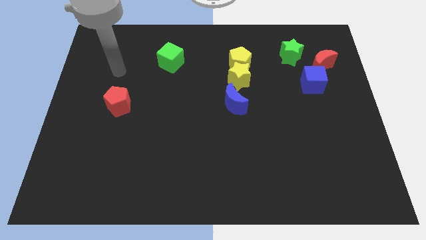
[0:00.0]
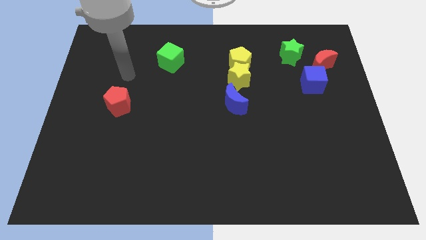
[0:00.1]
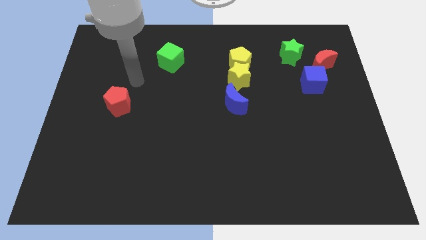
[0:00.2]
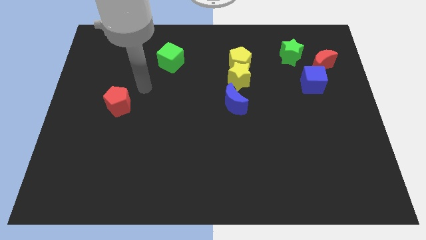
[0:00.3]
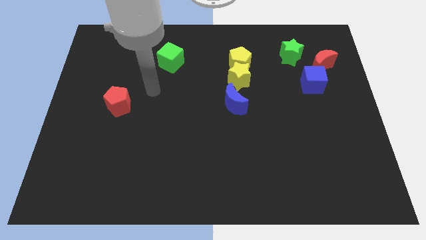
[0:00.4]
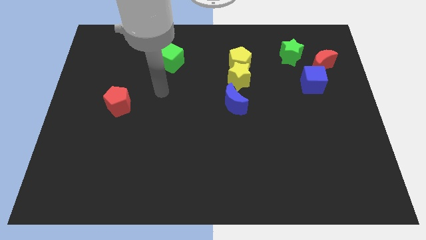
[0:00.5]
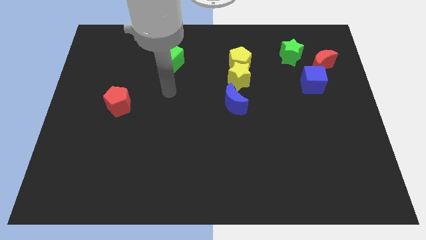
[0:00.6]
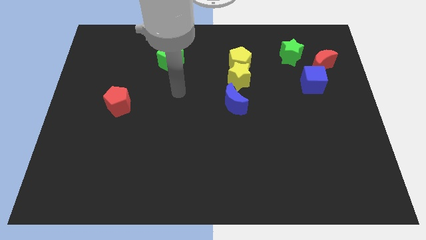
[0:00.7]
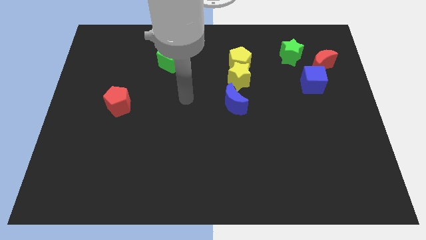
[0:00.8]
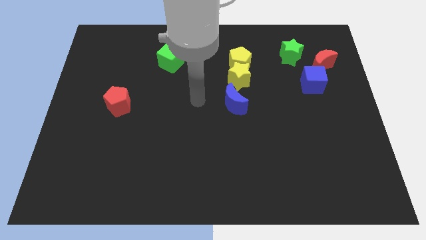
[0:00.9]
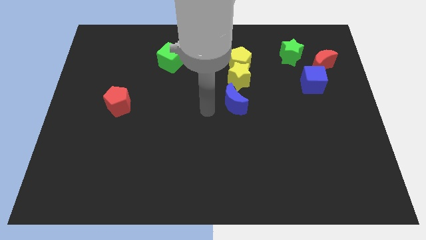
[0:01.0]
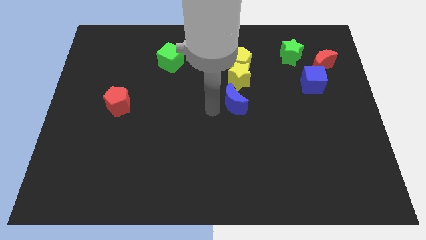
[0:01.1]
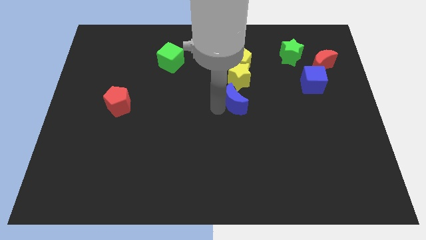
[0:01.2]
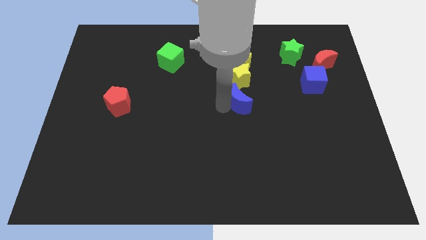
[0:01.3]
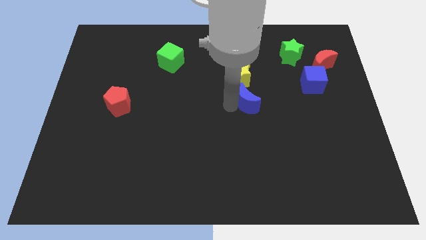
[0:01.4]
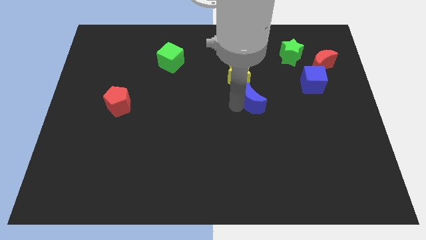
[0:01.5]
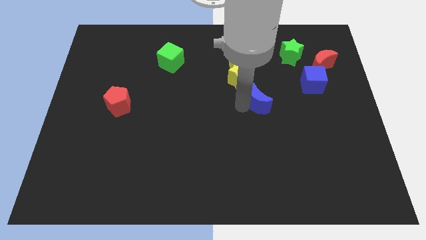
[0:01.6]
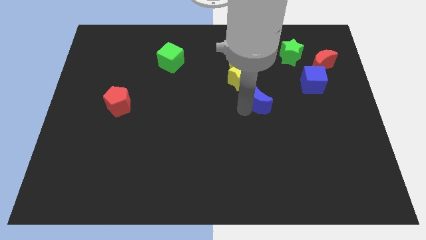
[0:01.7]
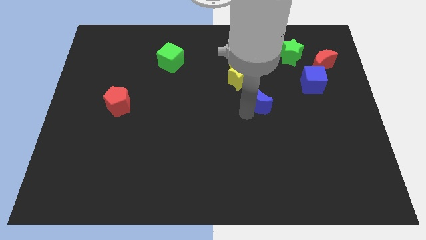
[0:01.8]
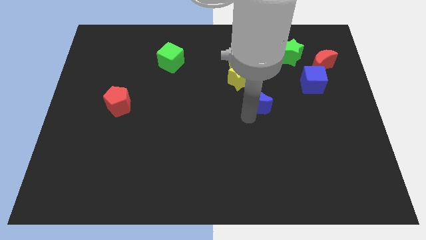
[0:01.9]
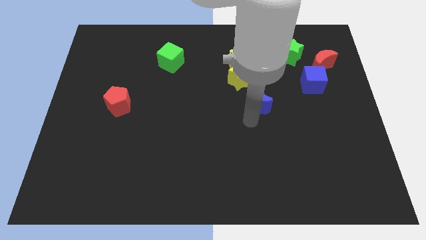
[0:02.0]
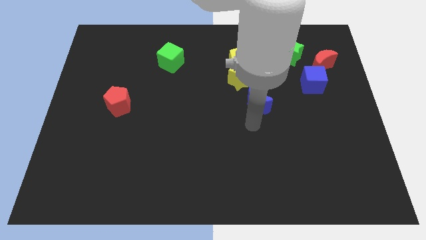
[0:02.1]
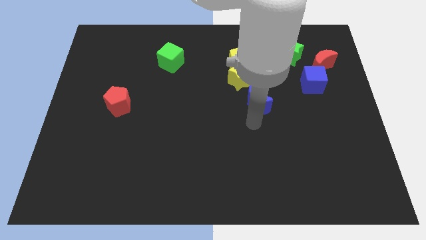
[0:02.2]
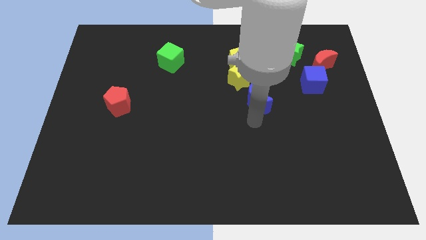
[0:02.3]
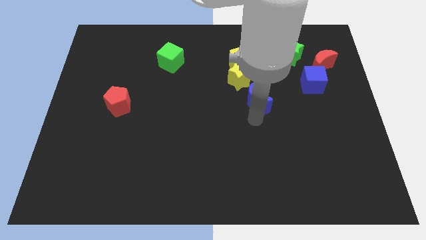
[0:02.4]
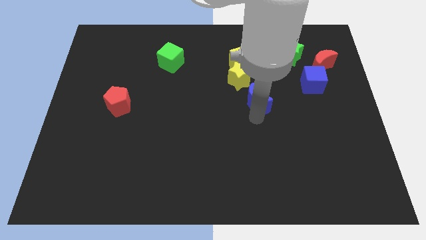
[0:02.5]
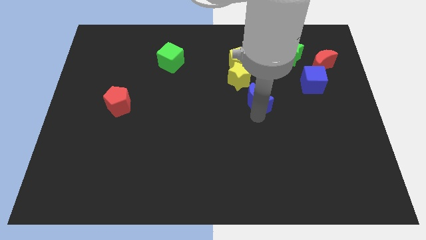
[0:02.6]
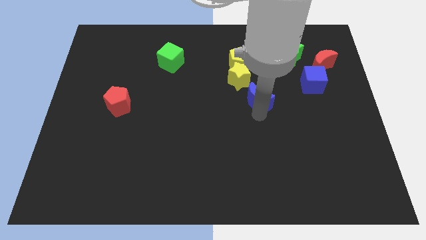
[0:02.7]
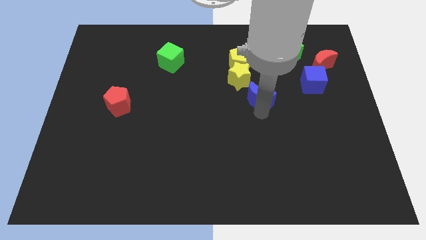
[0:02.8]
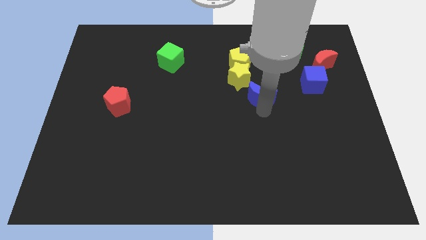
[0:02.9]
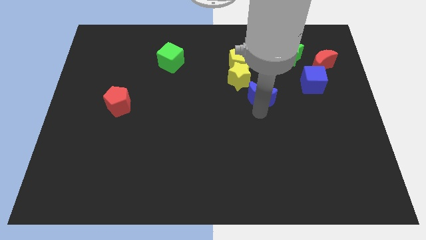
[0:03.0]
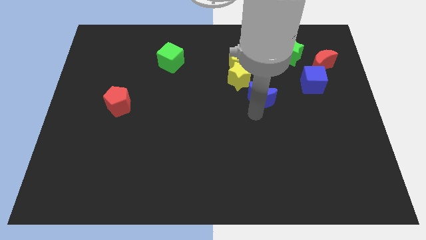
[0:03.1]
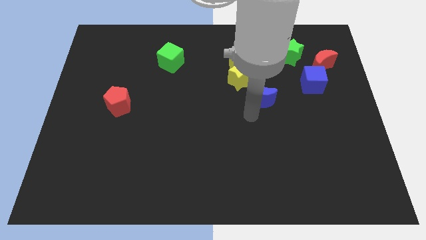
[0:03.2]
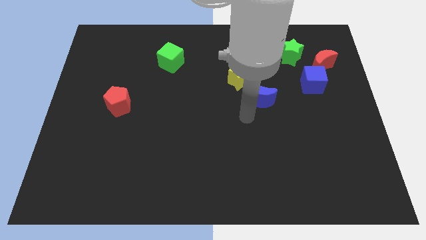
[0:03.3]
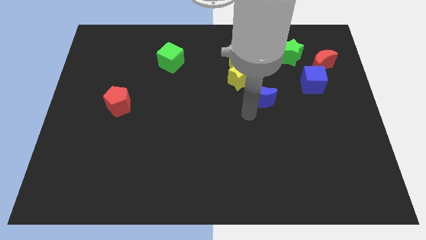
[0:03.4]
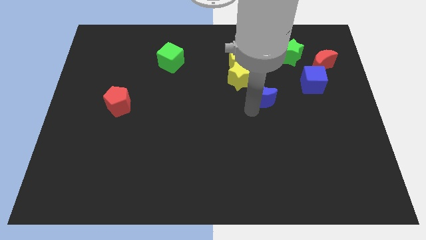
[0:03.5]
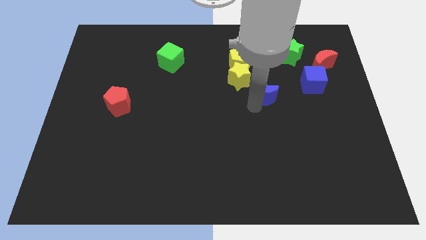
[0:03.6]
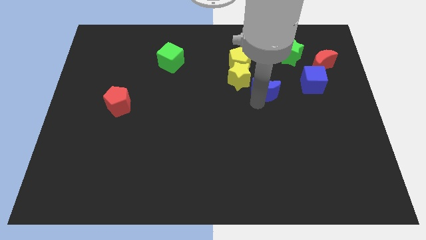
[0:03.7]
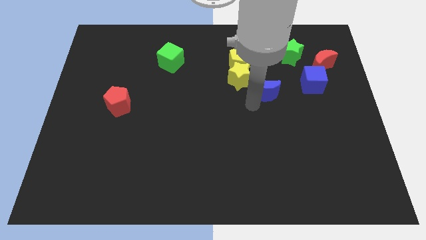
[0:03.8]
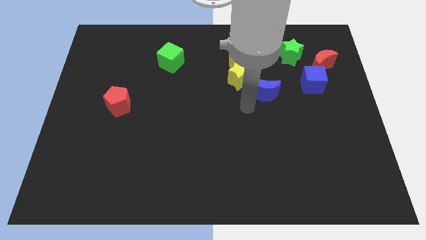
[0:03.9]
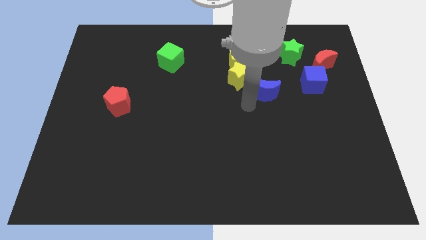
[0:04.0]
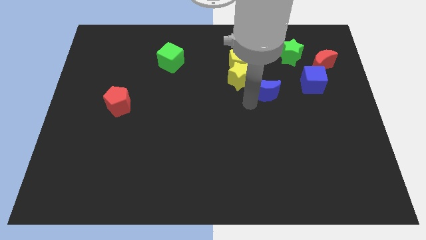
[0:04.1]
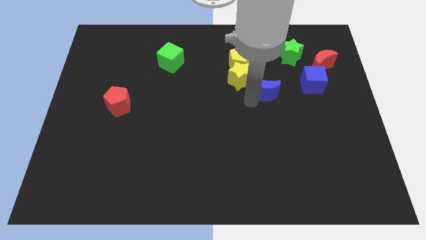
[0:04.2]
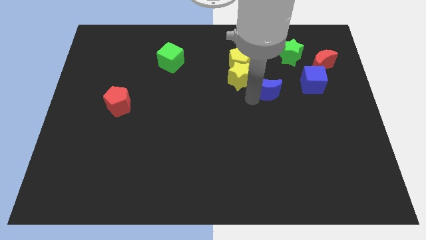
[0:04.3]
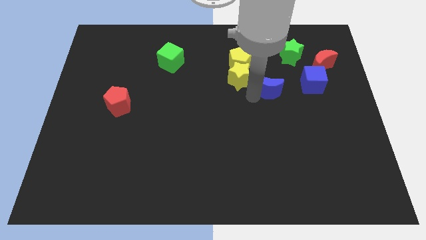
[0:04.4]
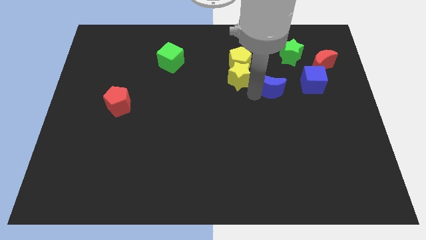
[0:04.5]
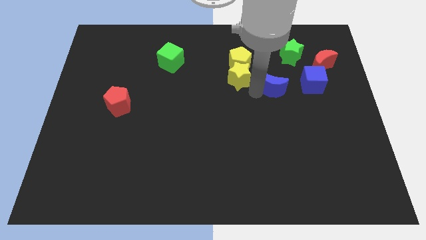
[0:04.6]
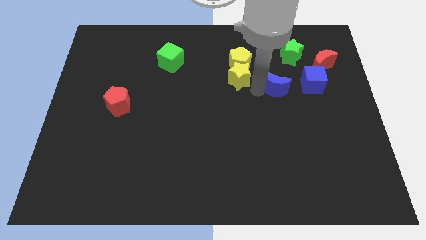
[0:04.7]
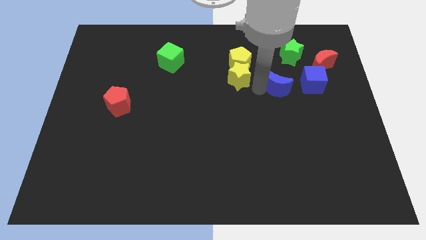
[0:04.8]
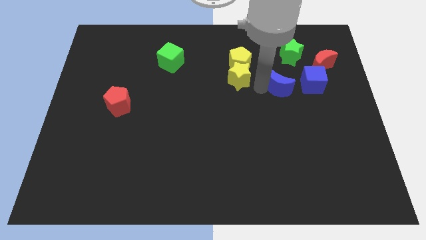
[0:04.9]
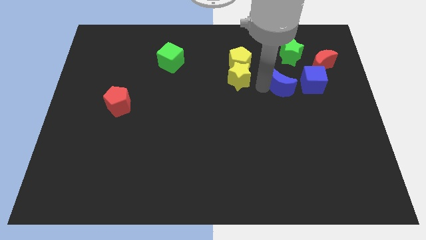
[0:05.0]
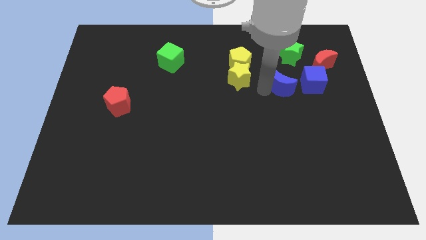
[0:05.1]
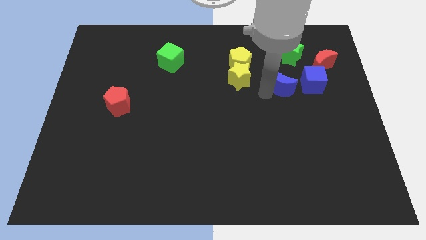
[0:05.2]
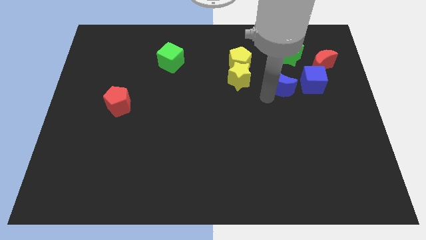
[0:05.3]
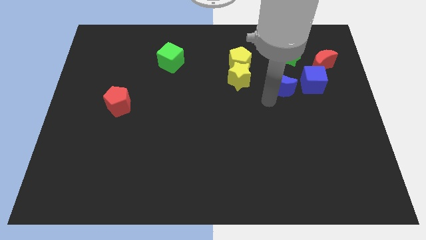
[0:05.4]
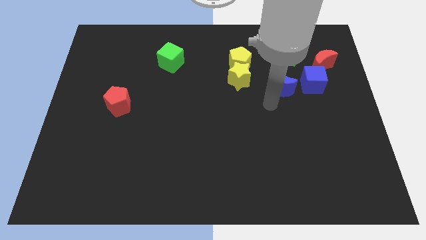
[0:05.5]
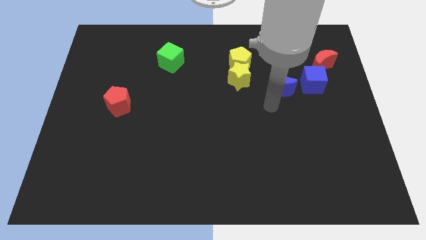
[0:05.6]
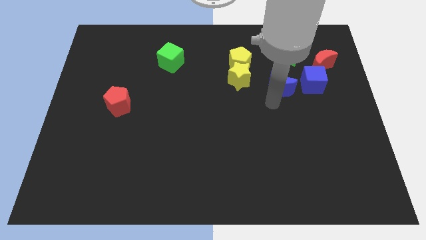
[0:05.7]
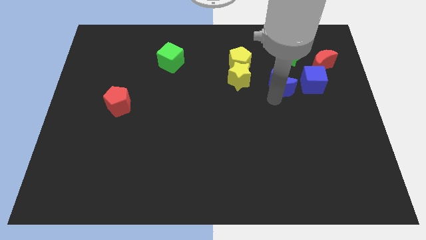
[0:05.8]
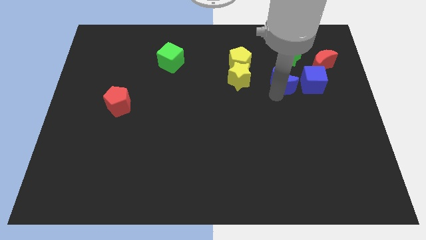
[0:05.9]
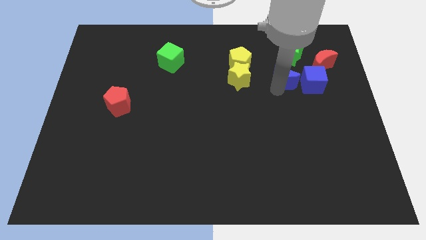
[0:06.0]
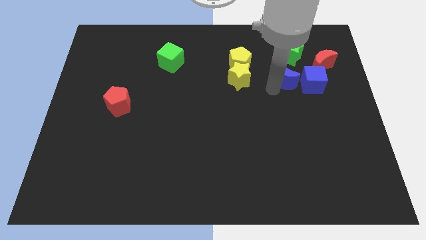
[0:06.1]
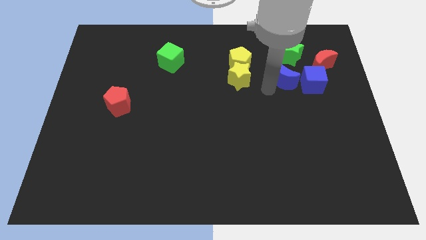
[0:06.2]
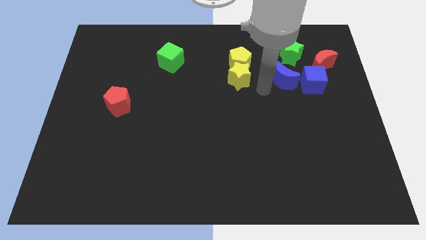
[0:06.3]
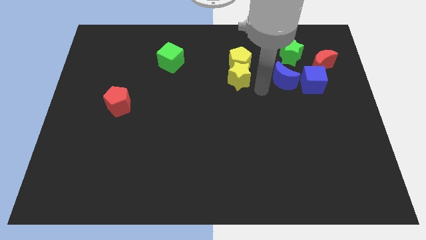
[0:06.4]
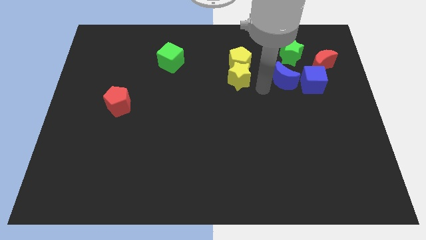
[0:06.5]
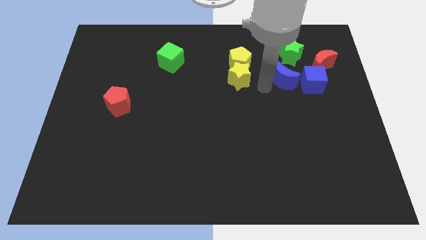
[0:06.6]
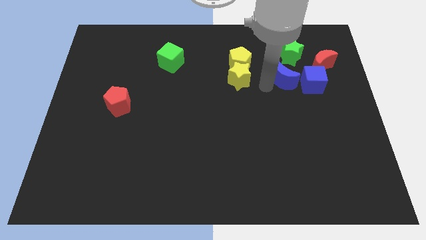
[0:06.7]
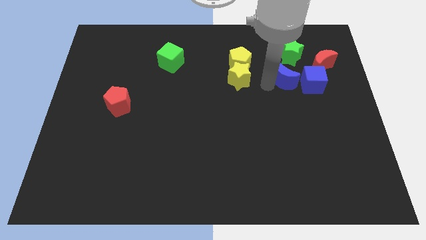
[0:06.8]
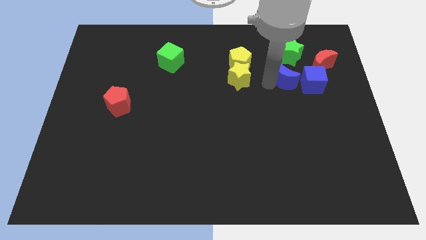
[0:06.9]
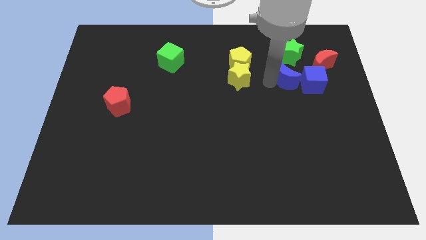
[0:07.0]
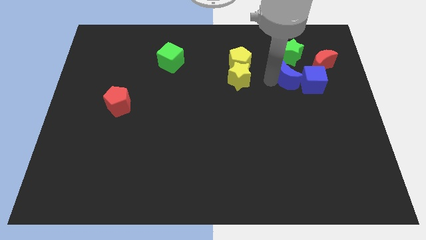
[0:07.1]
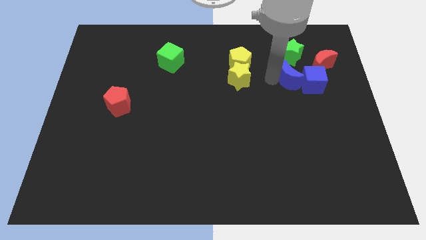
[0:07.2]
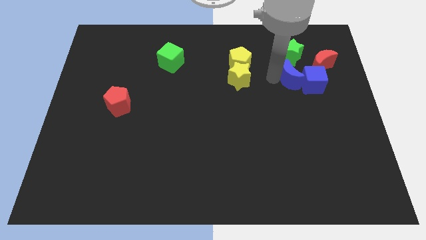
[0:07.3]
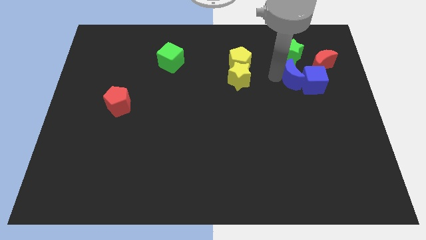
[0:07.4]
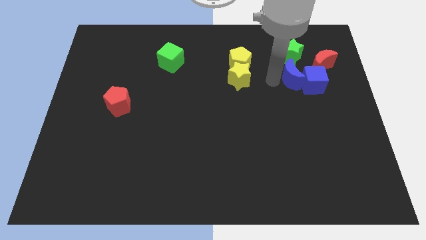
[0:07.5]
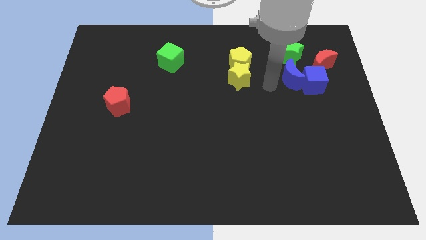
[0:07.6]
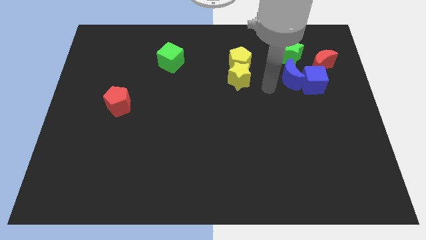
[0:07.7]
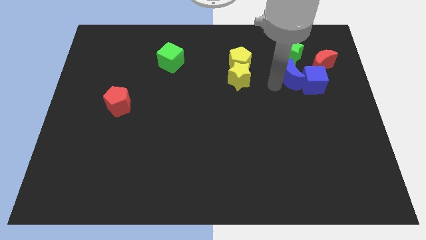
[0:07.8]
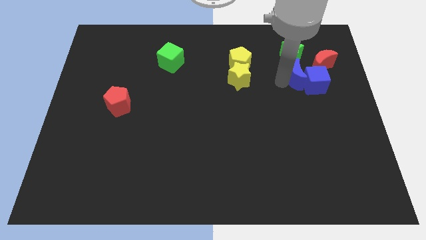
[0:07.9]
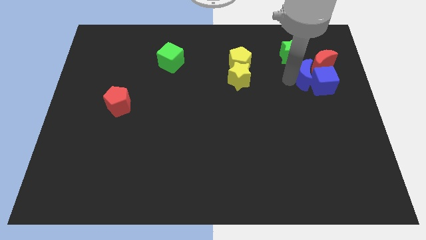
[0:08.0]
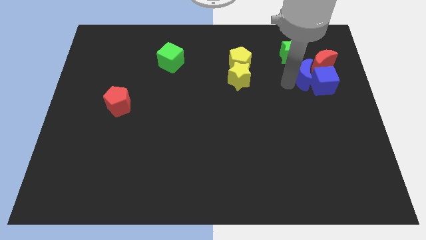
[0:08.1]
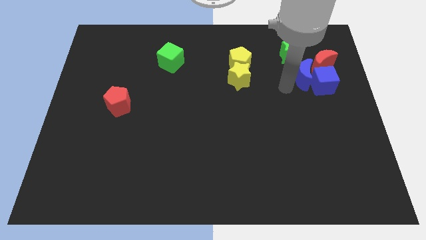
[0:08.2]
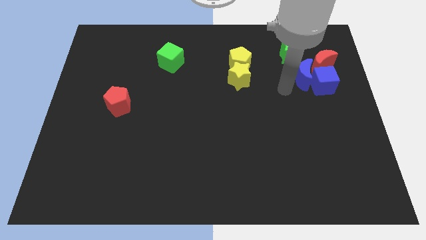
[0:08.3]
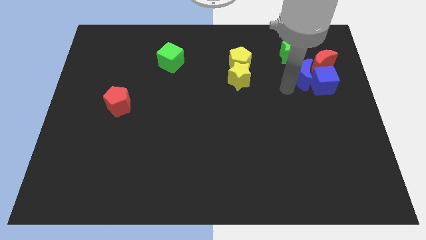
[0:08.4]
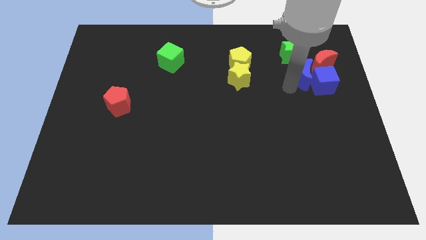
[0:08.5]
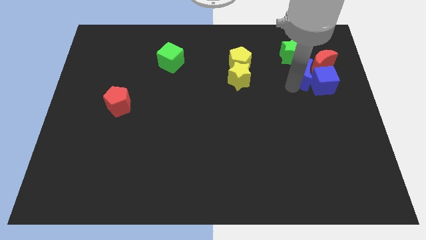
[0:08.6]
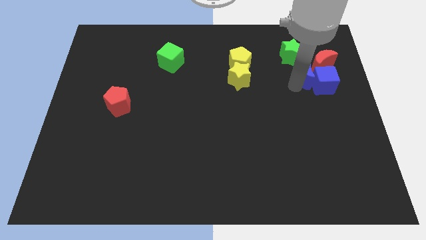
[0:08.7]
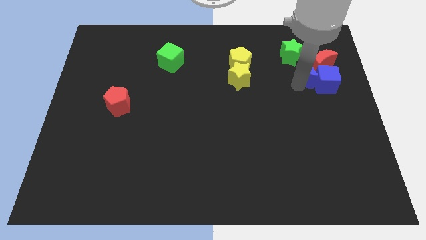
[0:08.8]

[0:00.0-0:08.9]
push the blue moon towards the red moon
